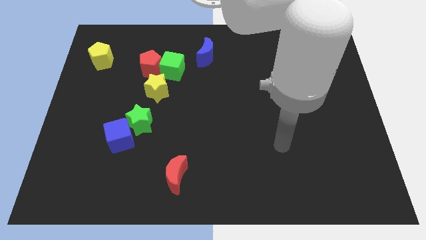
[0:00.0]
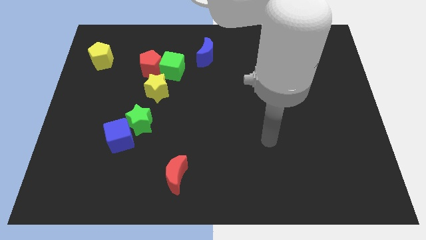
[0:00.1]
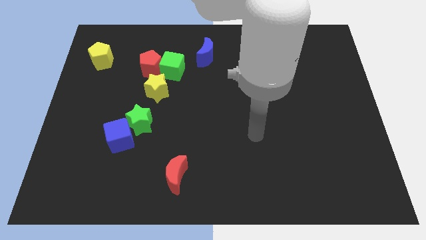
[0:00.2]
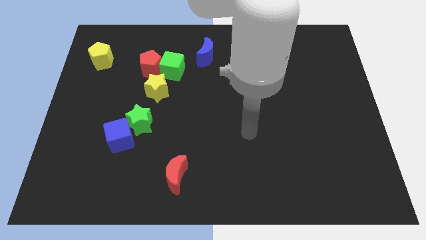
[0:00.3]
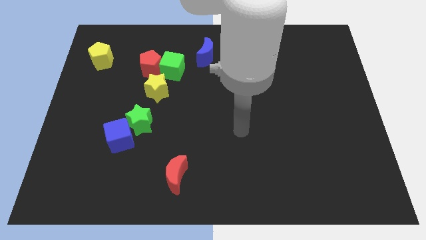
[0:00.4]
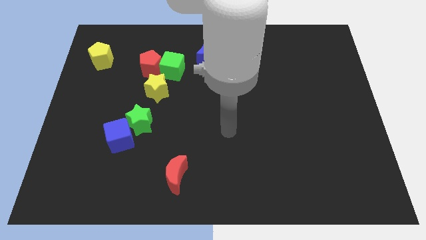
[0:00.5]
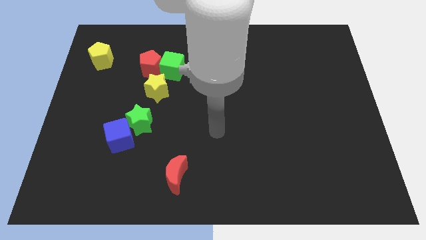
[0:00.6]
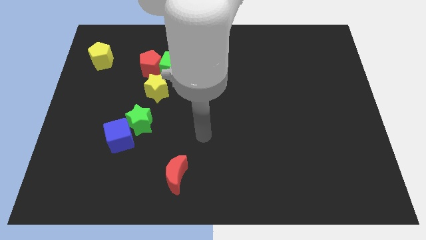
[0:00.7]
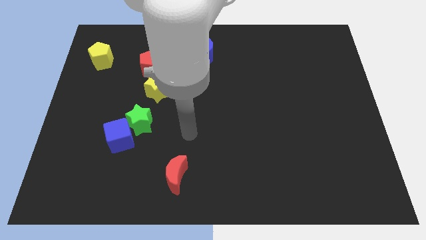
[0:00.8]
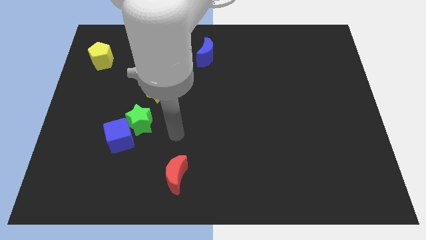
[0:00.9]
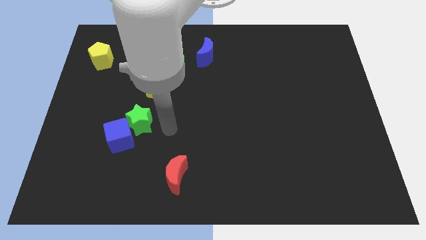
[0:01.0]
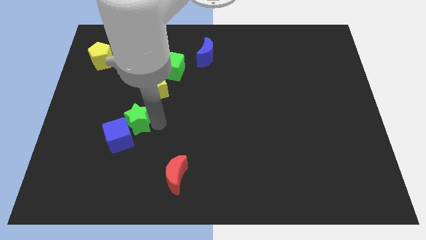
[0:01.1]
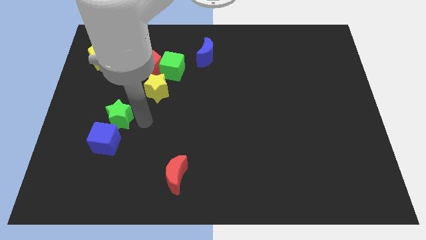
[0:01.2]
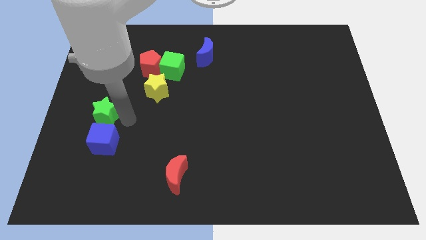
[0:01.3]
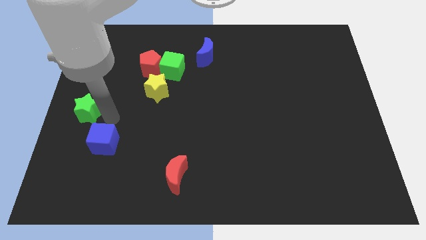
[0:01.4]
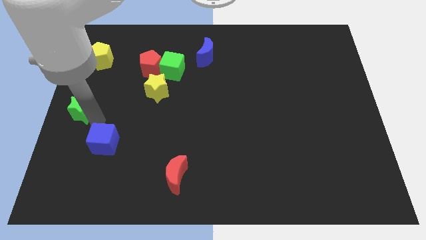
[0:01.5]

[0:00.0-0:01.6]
move the blue cube away from the green star

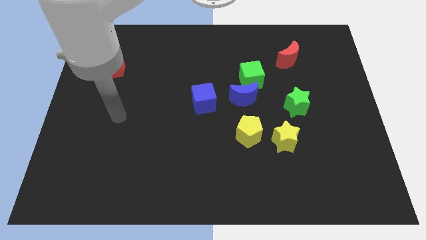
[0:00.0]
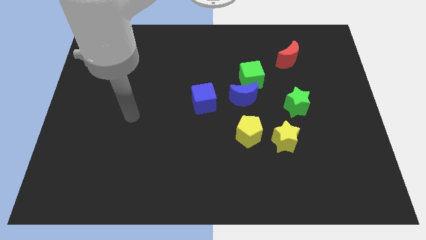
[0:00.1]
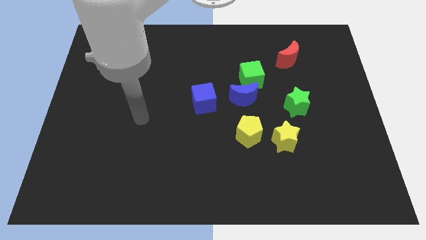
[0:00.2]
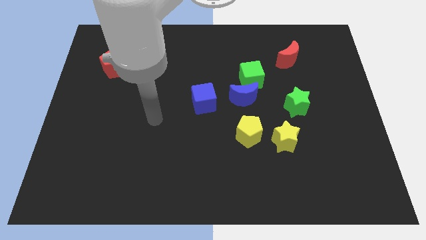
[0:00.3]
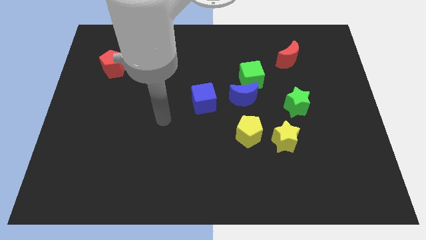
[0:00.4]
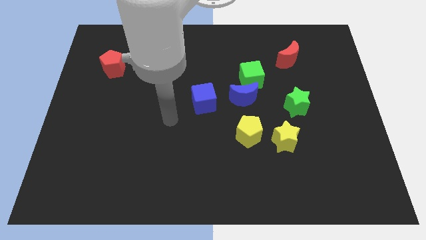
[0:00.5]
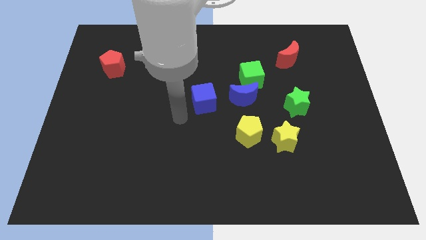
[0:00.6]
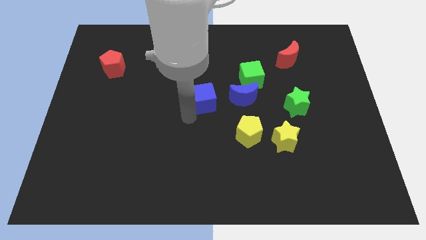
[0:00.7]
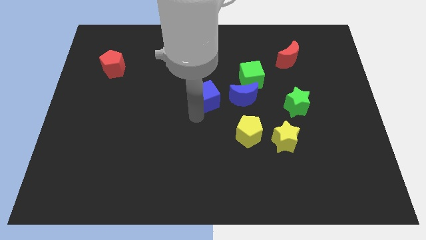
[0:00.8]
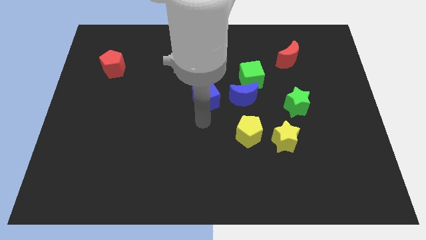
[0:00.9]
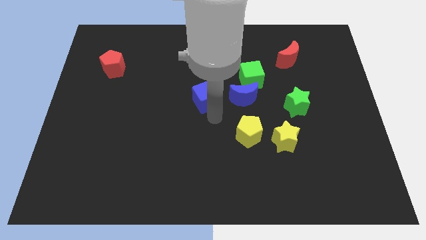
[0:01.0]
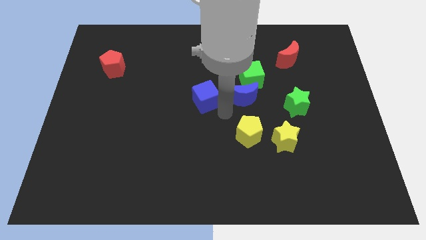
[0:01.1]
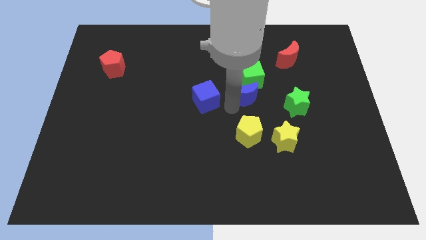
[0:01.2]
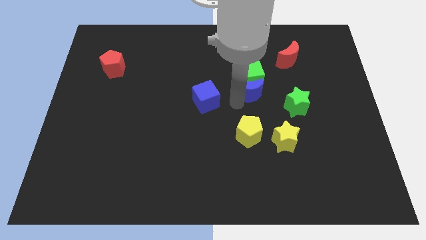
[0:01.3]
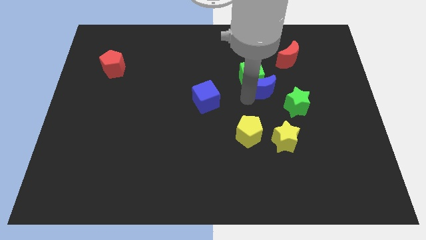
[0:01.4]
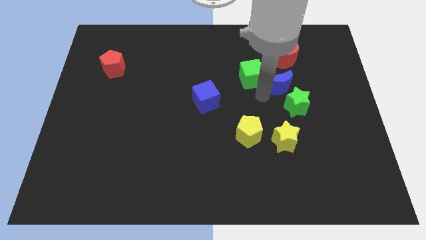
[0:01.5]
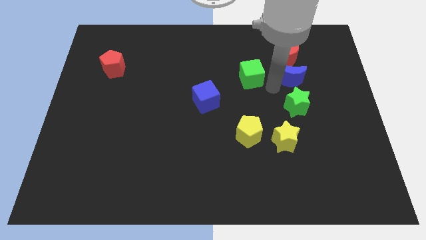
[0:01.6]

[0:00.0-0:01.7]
move the green cube away from the blue moon

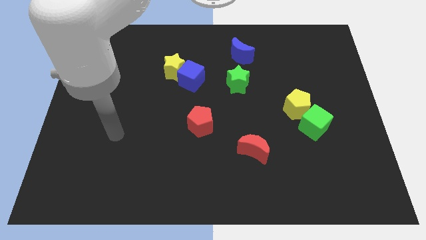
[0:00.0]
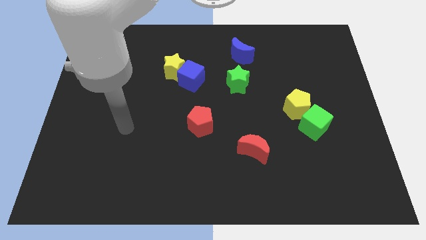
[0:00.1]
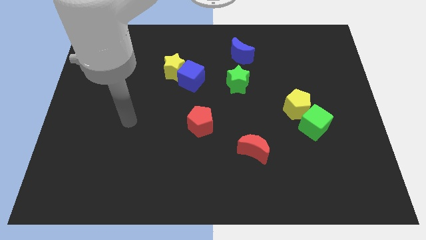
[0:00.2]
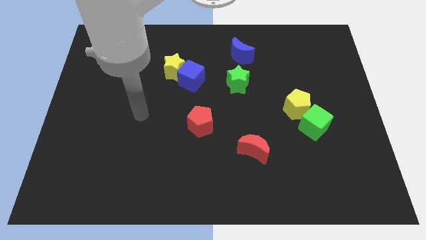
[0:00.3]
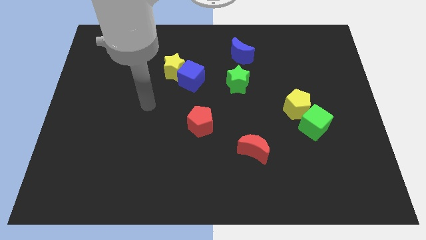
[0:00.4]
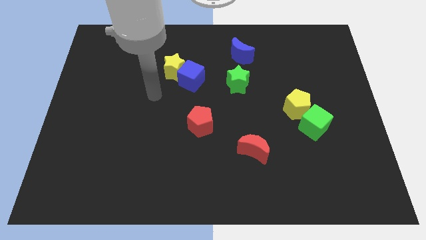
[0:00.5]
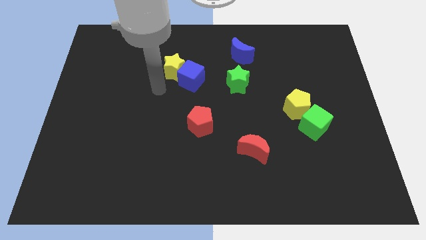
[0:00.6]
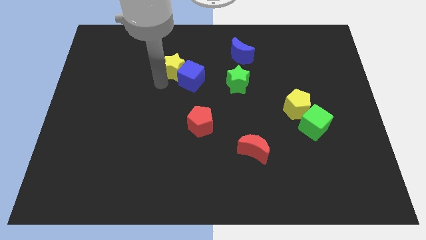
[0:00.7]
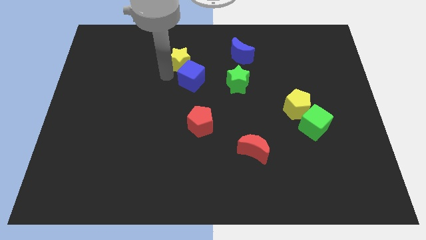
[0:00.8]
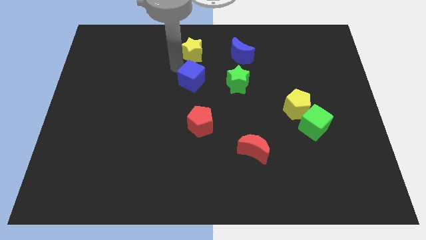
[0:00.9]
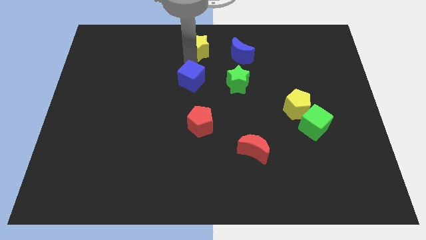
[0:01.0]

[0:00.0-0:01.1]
move the blue cube away from the yellow star

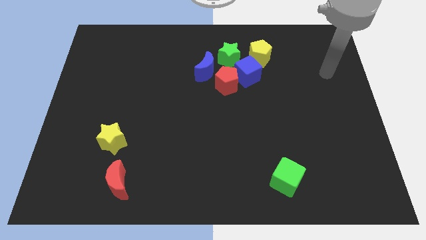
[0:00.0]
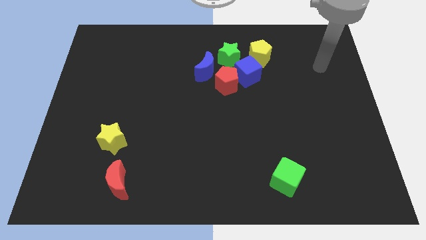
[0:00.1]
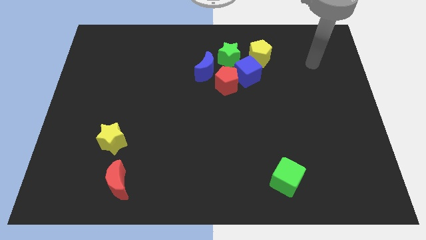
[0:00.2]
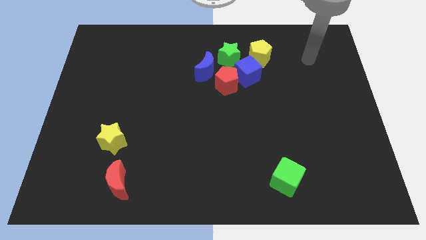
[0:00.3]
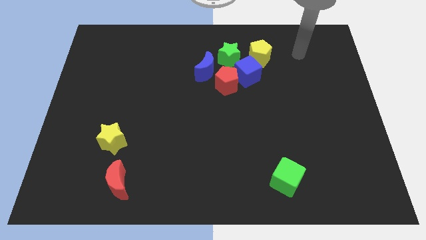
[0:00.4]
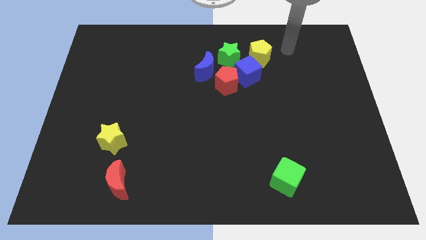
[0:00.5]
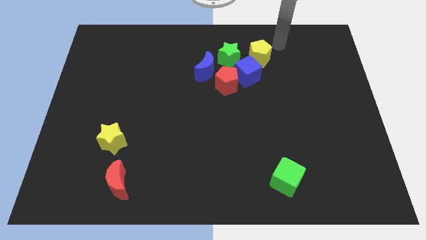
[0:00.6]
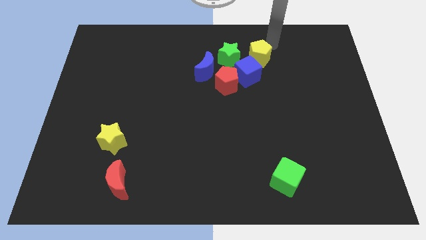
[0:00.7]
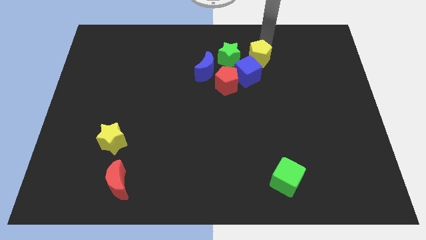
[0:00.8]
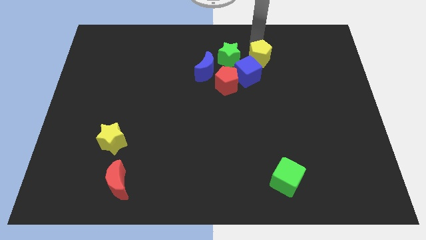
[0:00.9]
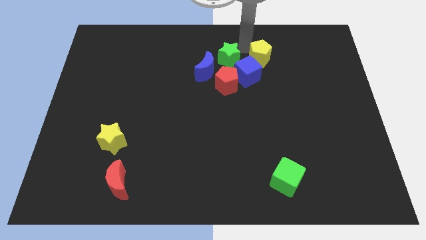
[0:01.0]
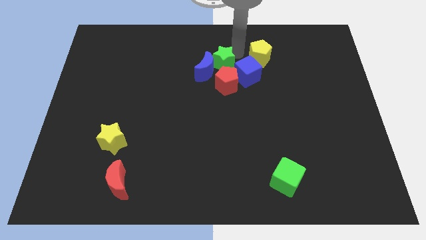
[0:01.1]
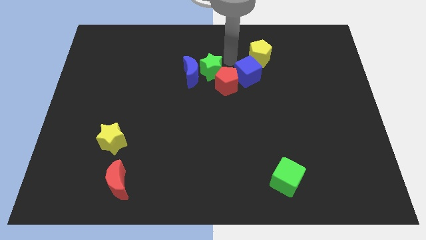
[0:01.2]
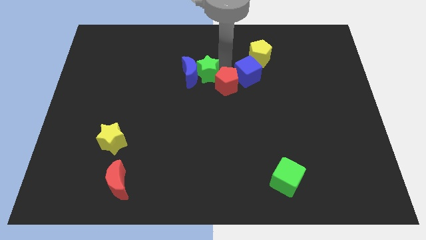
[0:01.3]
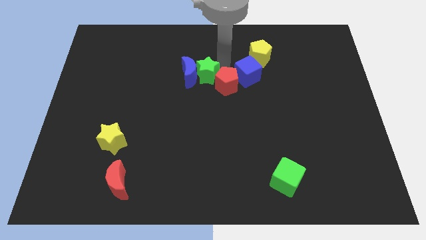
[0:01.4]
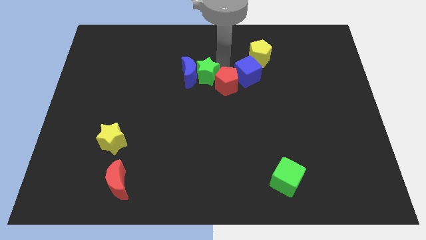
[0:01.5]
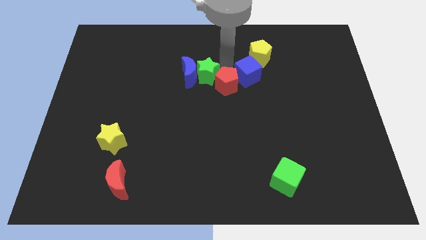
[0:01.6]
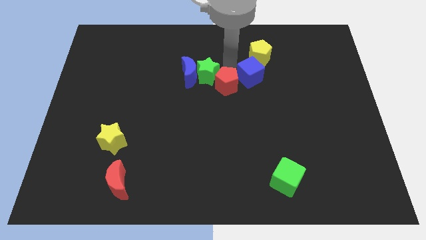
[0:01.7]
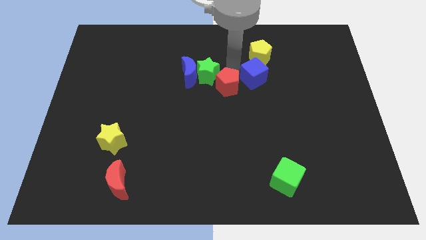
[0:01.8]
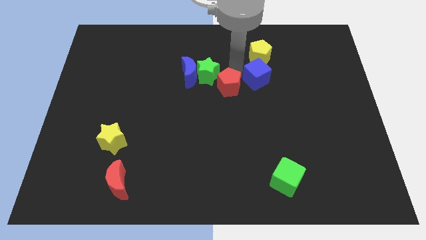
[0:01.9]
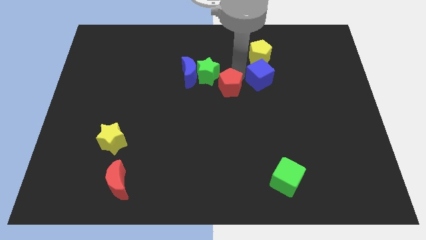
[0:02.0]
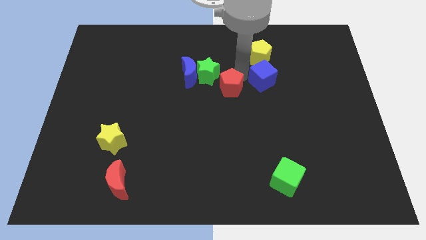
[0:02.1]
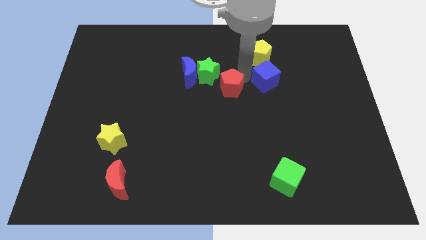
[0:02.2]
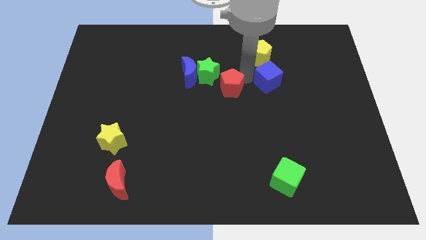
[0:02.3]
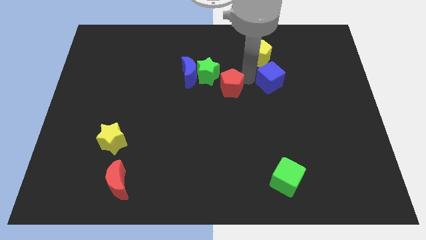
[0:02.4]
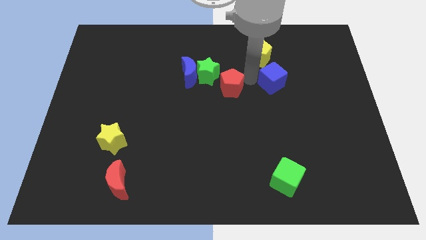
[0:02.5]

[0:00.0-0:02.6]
separate the blue cube from the red pentagon, yellow pentagon, and green star

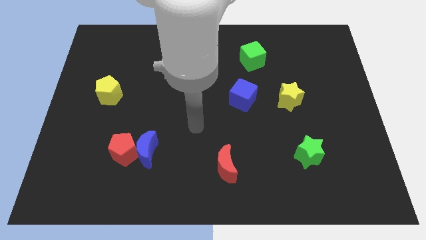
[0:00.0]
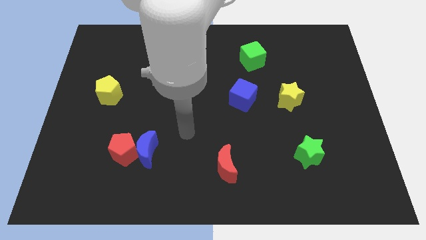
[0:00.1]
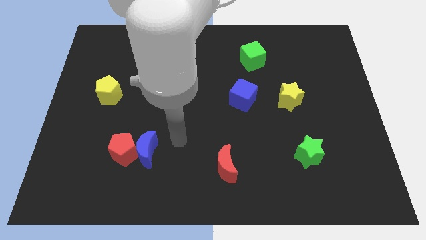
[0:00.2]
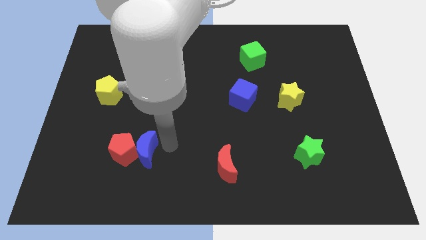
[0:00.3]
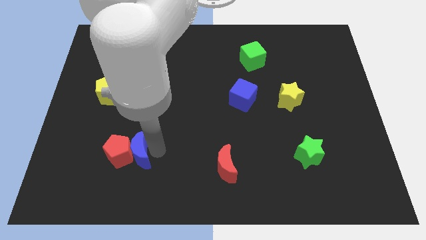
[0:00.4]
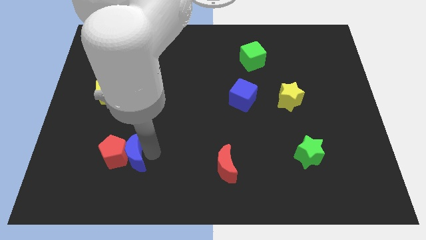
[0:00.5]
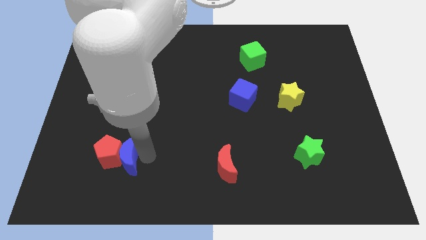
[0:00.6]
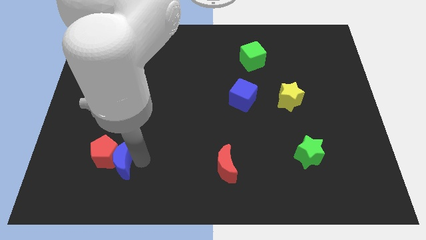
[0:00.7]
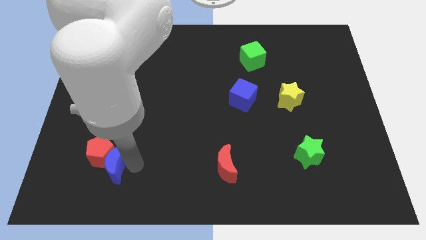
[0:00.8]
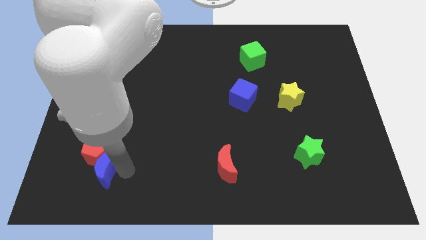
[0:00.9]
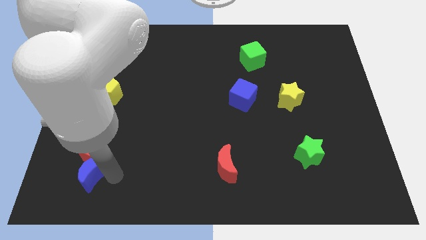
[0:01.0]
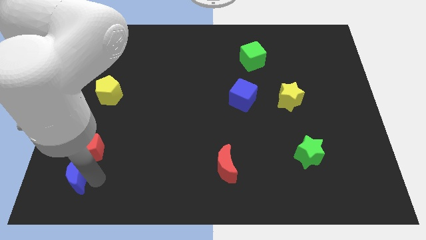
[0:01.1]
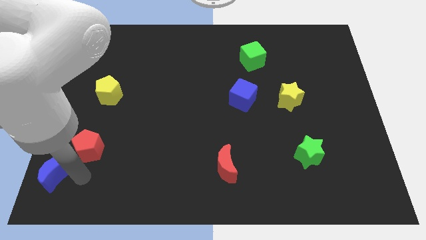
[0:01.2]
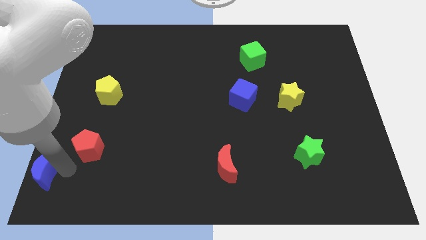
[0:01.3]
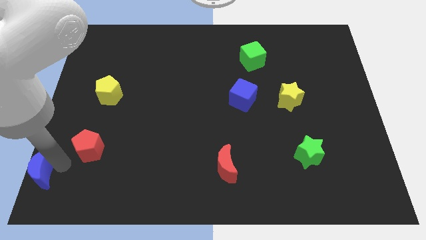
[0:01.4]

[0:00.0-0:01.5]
separate the red pentagon from the blue moon

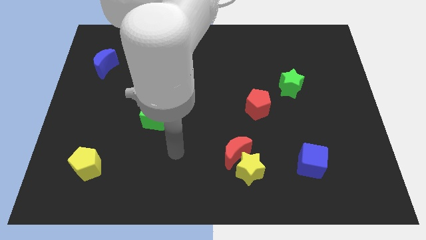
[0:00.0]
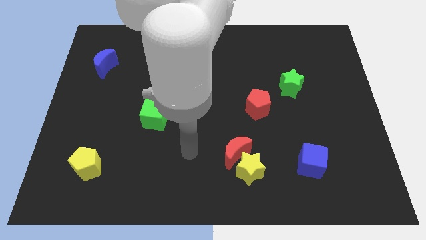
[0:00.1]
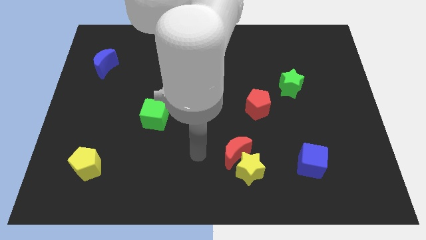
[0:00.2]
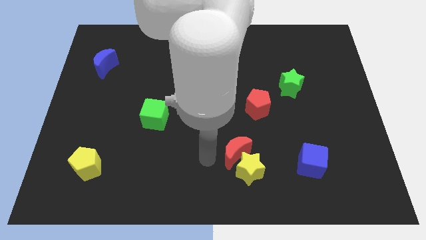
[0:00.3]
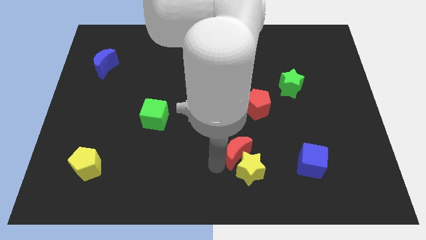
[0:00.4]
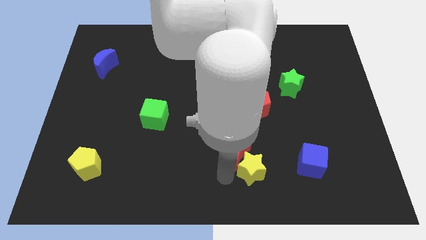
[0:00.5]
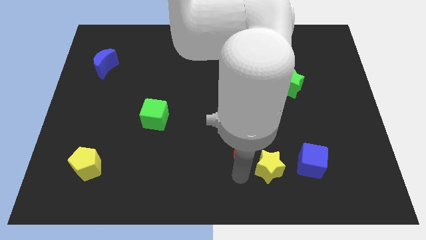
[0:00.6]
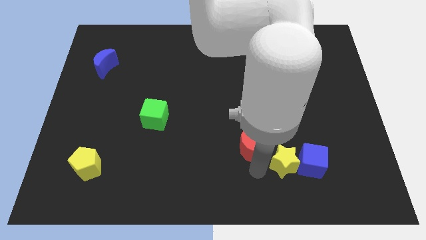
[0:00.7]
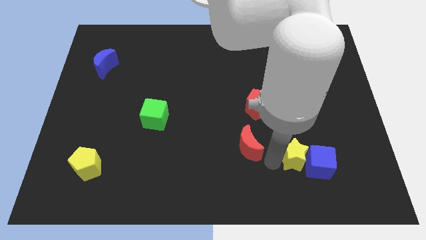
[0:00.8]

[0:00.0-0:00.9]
move the red moon away from the yellow star
